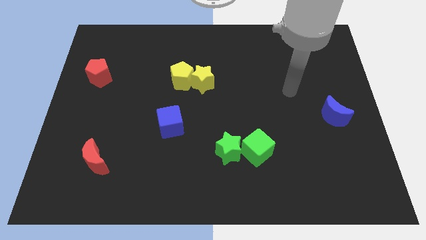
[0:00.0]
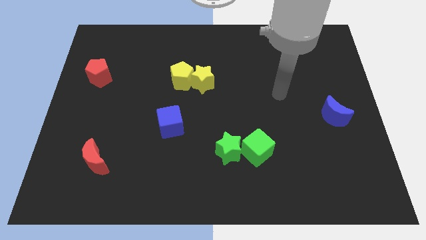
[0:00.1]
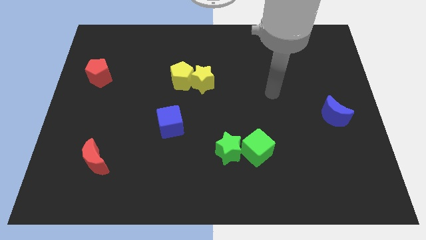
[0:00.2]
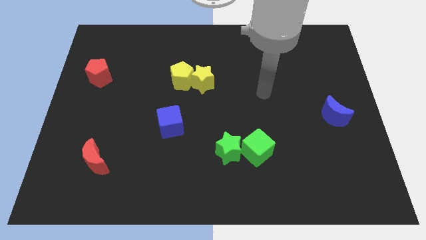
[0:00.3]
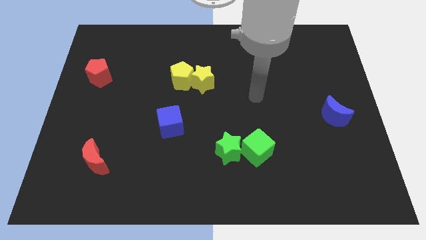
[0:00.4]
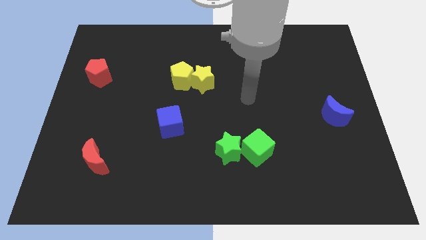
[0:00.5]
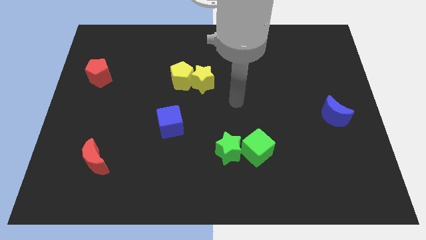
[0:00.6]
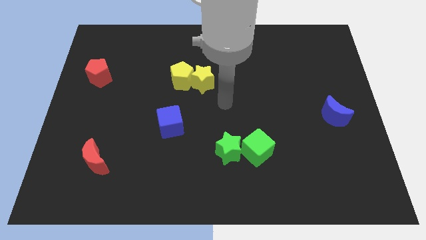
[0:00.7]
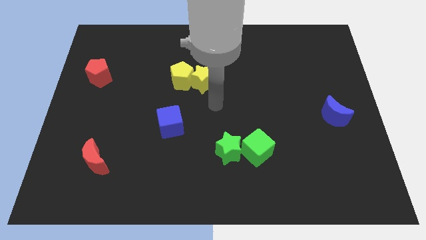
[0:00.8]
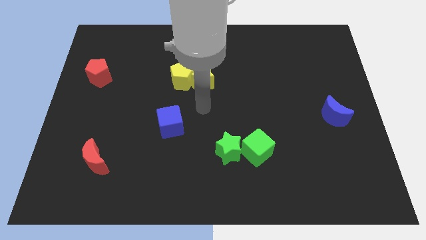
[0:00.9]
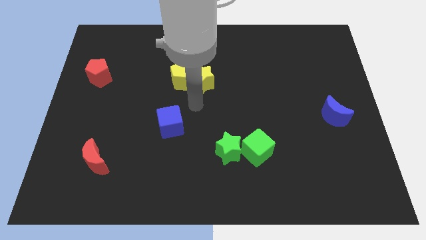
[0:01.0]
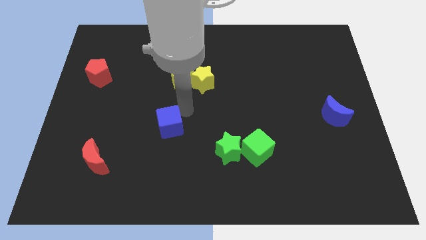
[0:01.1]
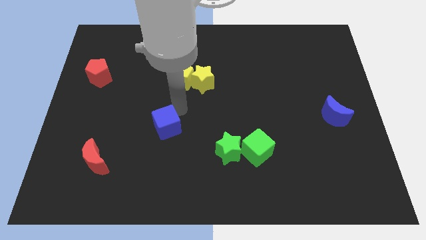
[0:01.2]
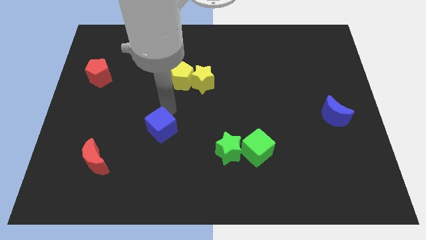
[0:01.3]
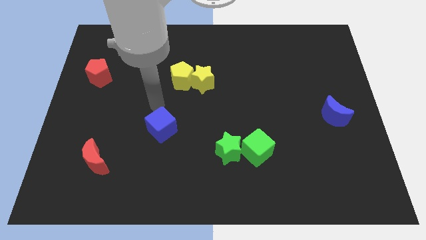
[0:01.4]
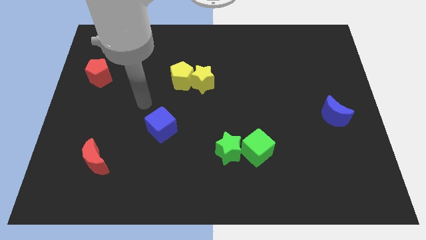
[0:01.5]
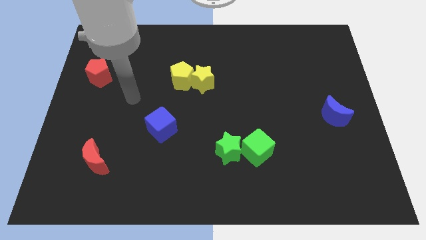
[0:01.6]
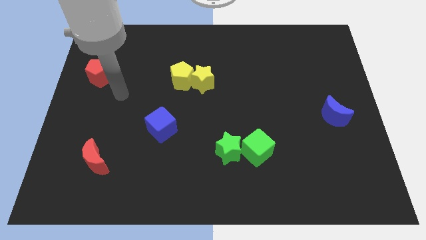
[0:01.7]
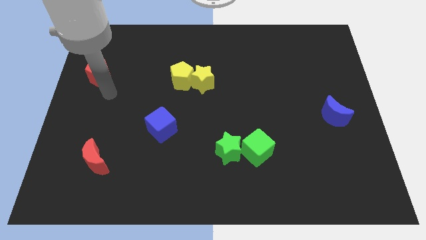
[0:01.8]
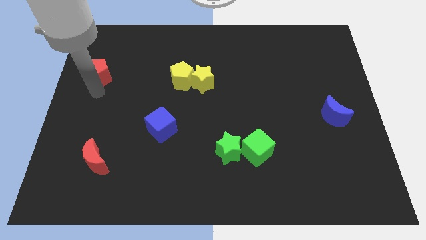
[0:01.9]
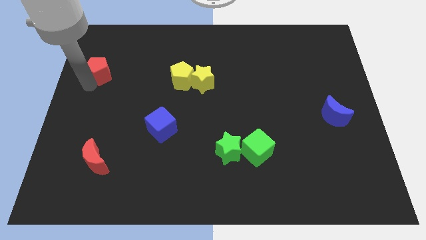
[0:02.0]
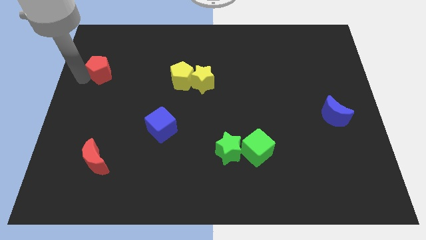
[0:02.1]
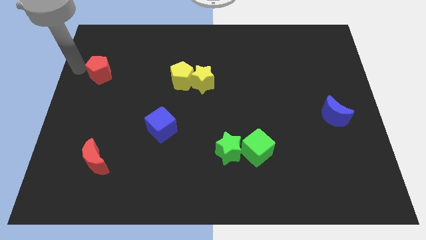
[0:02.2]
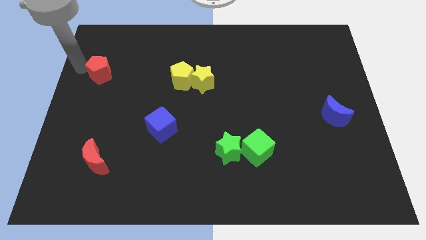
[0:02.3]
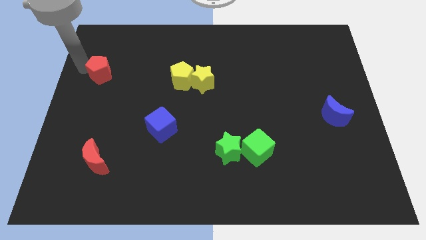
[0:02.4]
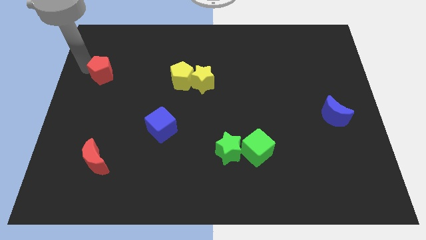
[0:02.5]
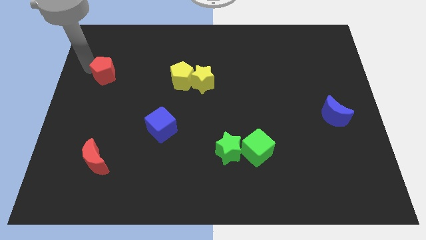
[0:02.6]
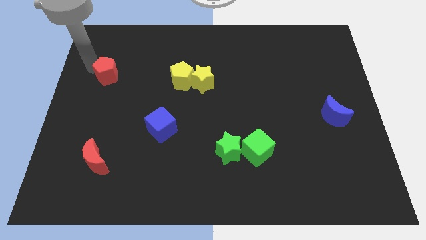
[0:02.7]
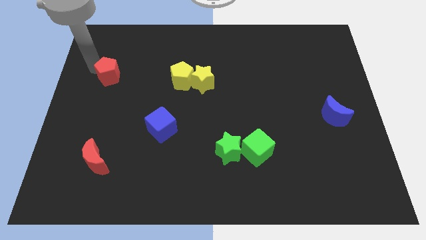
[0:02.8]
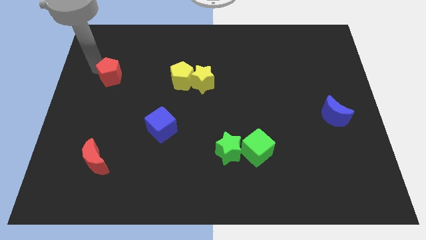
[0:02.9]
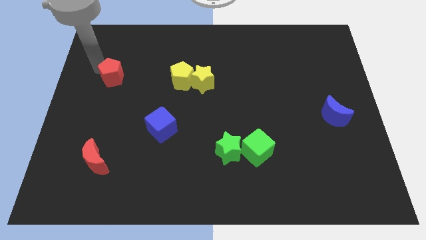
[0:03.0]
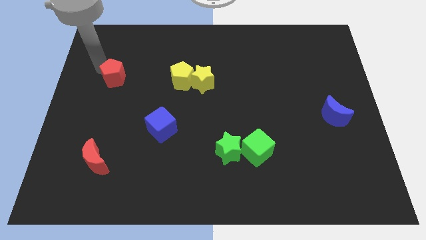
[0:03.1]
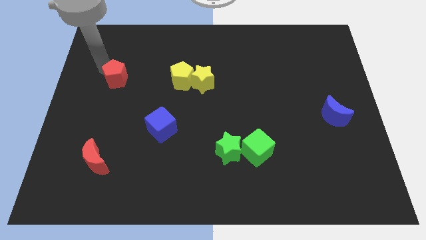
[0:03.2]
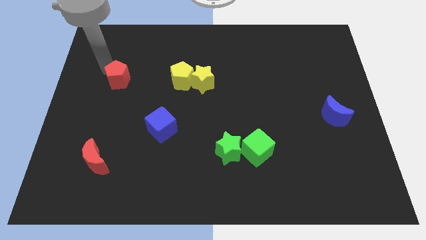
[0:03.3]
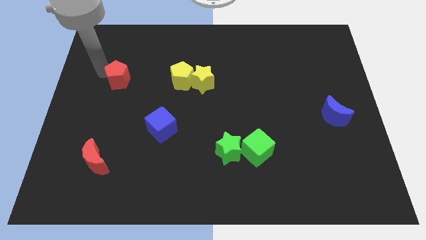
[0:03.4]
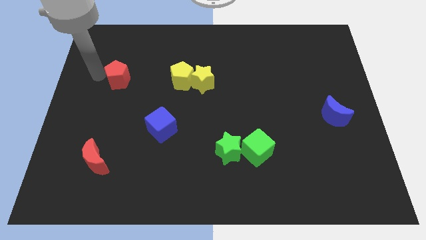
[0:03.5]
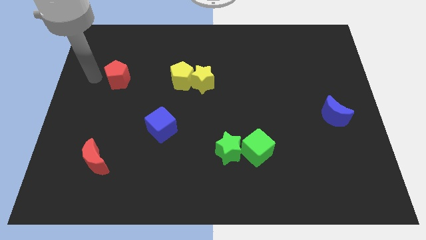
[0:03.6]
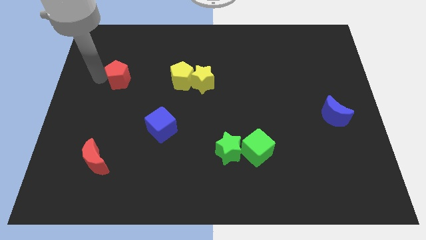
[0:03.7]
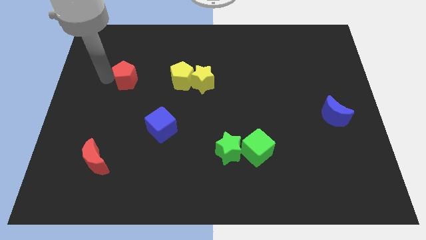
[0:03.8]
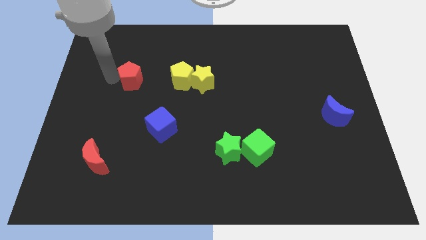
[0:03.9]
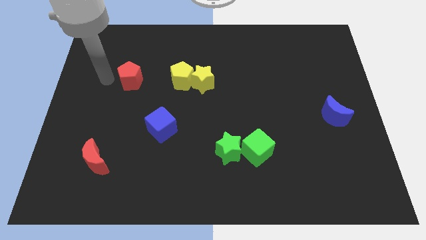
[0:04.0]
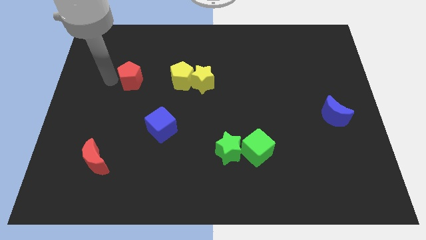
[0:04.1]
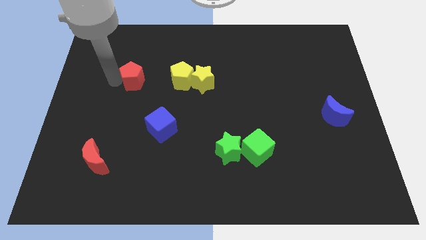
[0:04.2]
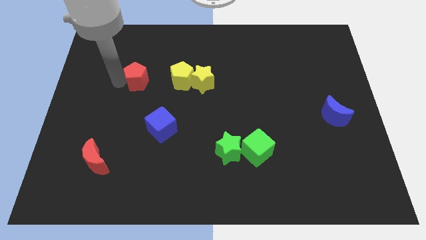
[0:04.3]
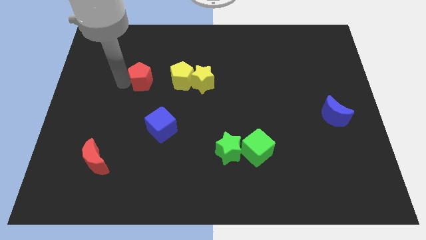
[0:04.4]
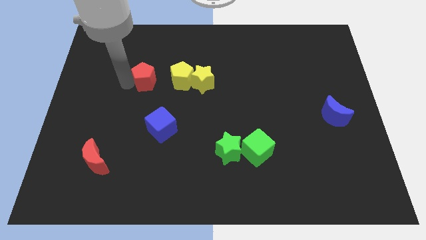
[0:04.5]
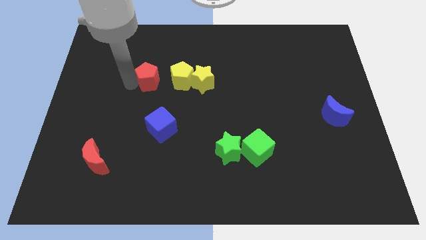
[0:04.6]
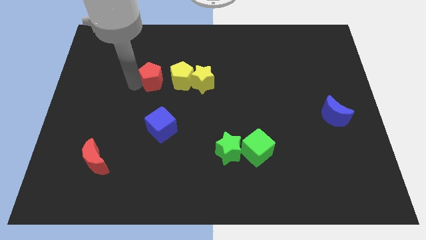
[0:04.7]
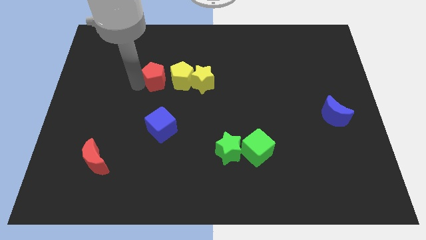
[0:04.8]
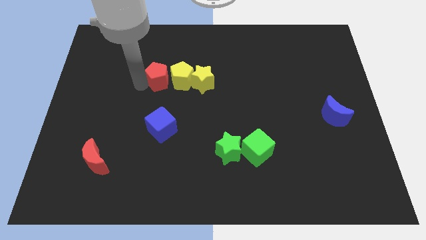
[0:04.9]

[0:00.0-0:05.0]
slide the red pentagon close to the yellow pentagon

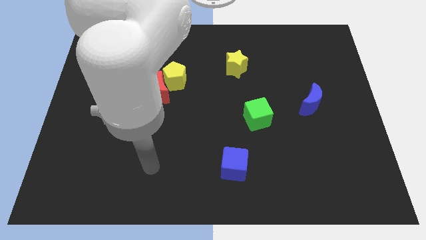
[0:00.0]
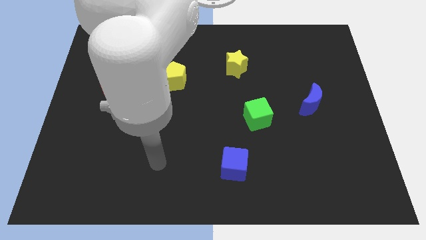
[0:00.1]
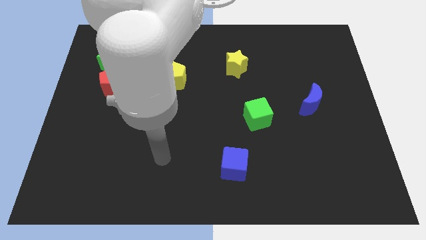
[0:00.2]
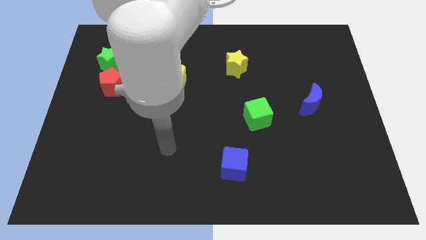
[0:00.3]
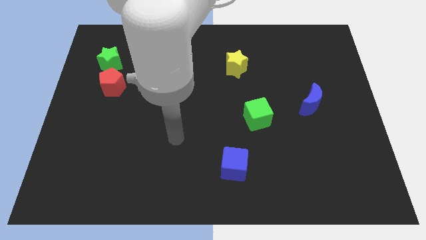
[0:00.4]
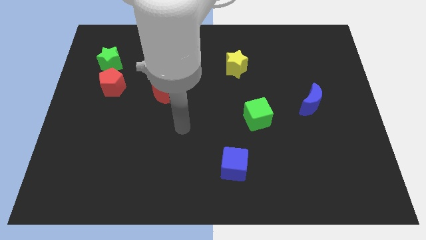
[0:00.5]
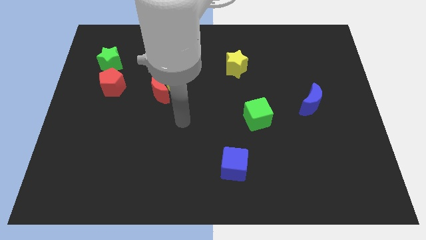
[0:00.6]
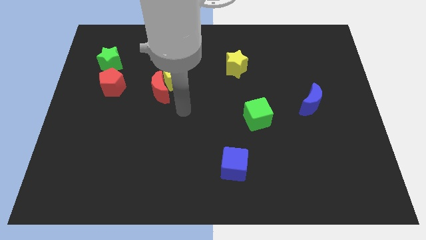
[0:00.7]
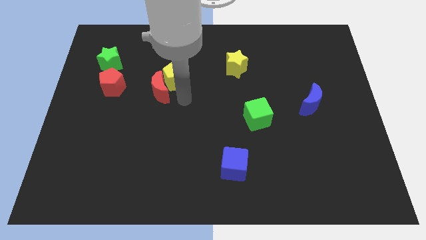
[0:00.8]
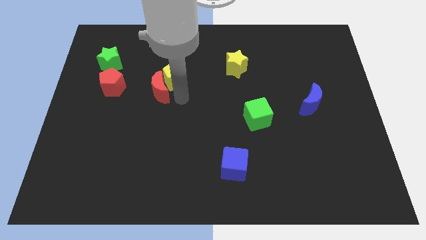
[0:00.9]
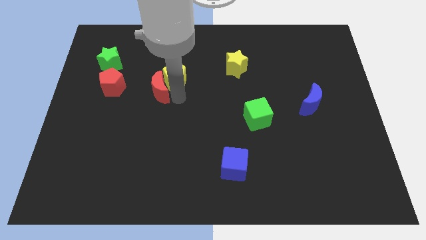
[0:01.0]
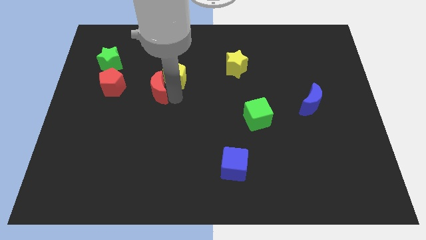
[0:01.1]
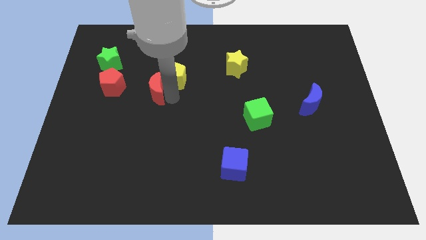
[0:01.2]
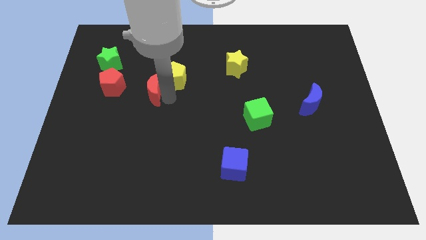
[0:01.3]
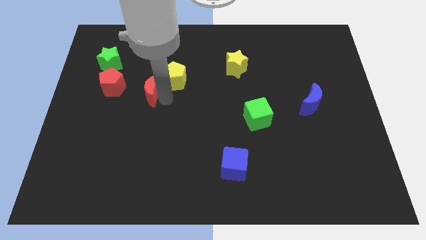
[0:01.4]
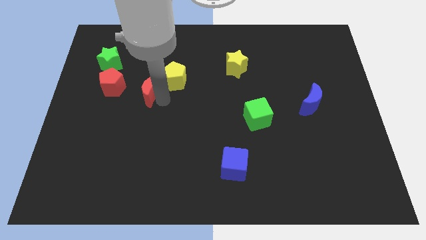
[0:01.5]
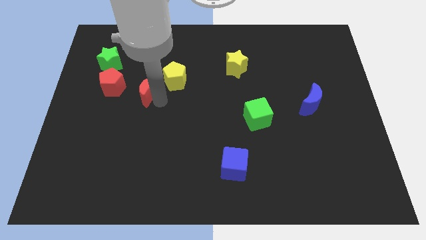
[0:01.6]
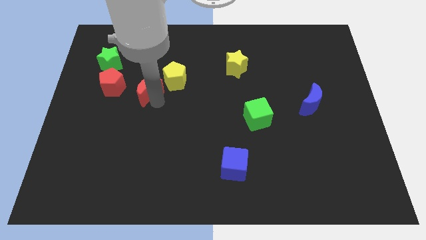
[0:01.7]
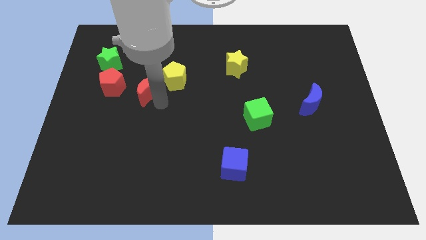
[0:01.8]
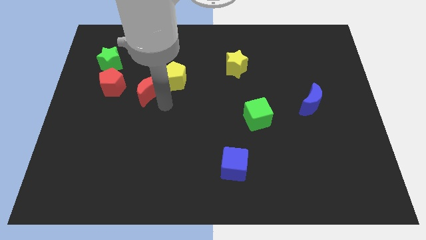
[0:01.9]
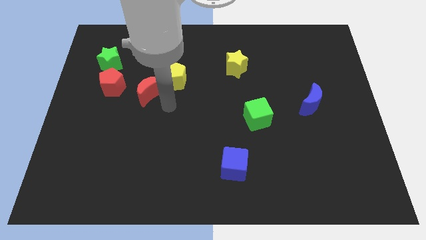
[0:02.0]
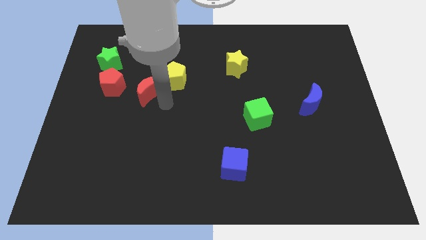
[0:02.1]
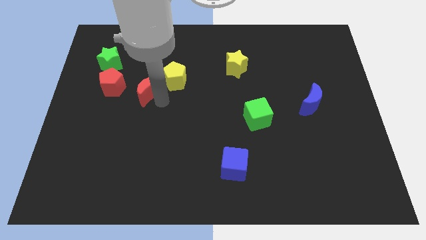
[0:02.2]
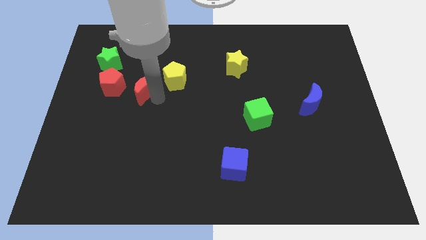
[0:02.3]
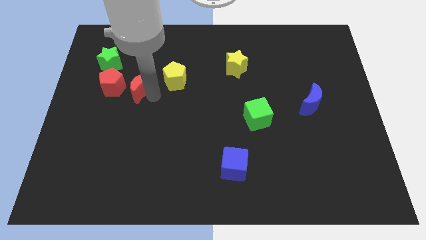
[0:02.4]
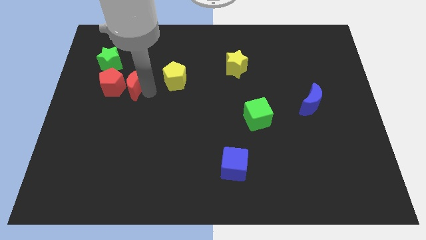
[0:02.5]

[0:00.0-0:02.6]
move the red moon close to the red pentagon

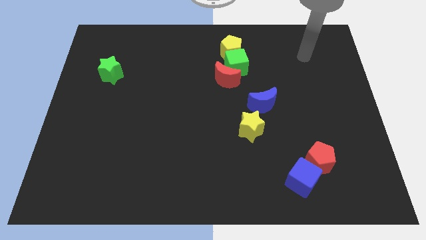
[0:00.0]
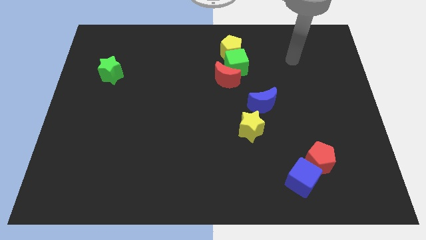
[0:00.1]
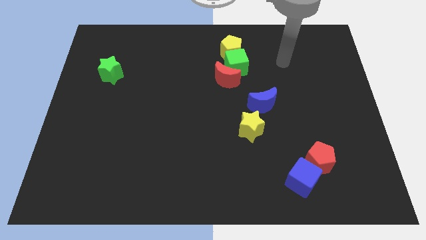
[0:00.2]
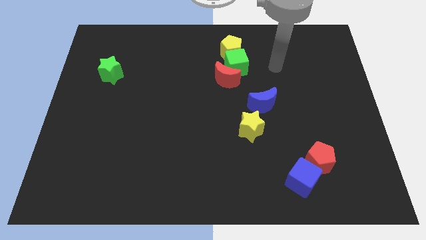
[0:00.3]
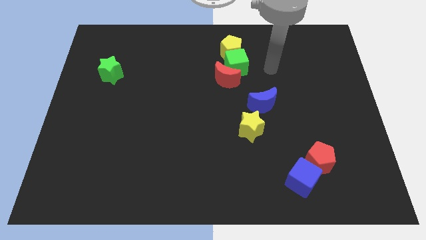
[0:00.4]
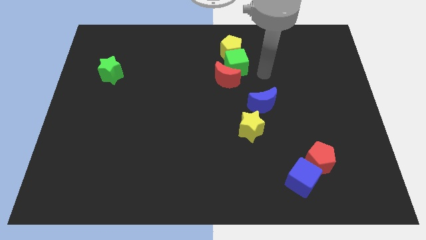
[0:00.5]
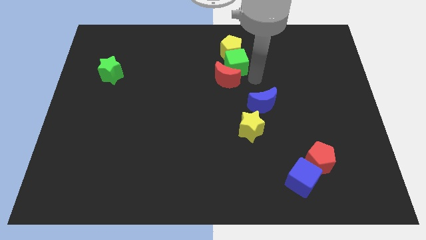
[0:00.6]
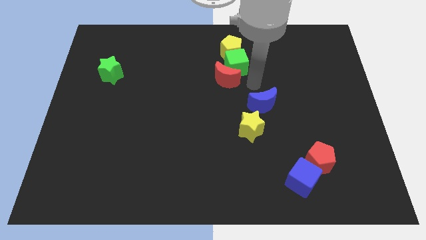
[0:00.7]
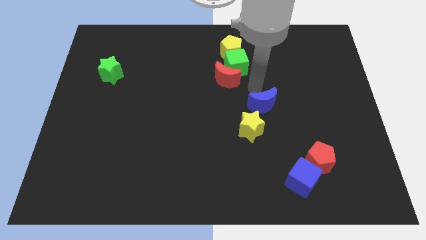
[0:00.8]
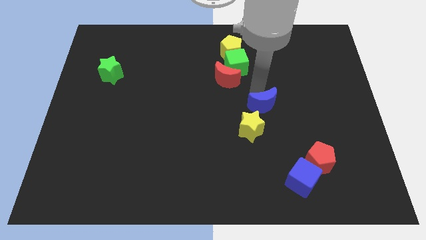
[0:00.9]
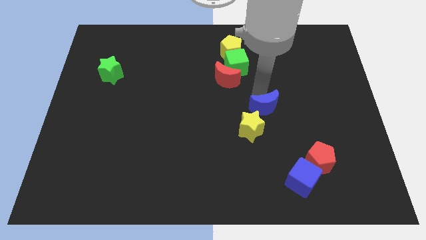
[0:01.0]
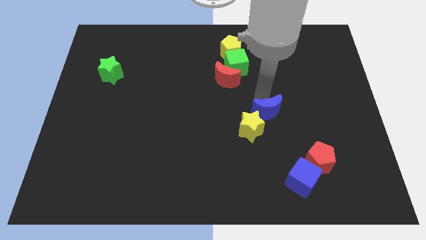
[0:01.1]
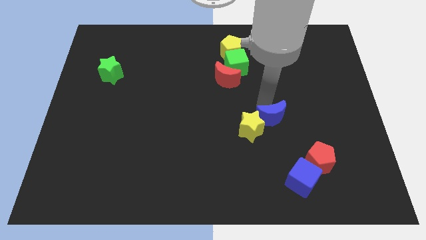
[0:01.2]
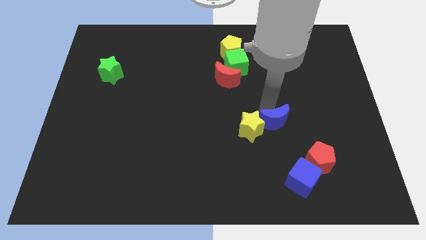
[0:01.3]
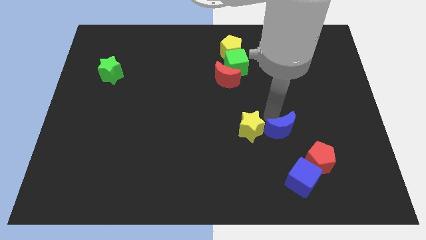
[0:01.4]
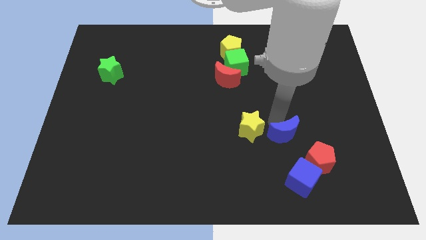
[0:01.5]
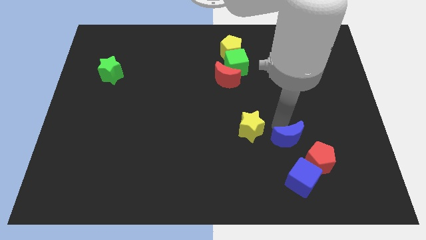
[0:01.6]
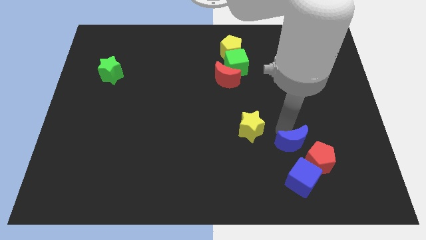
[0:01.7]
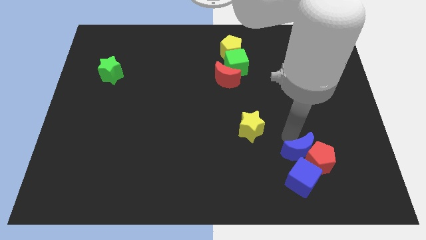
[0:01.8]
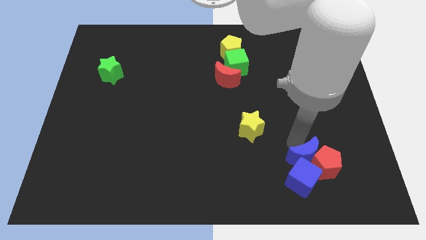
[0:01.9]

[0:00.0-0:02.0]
slide the blue moon next to the blue cube
